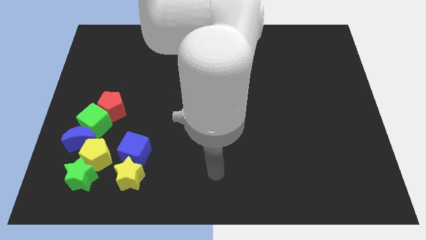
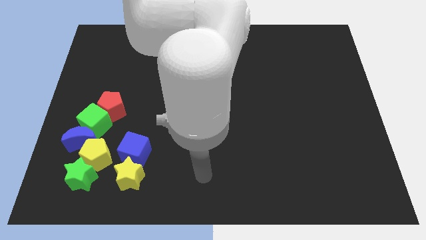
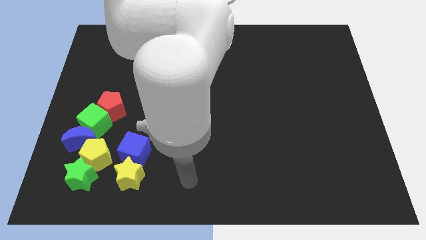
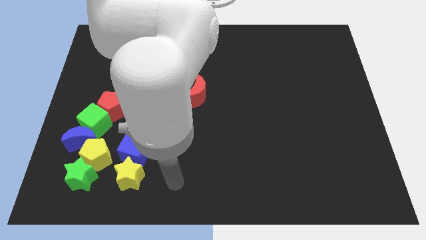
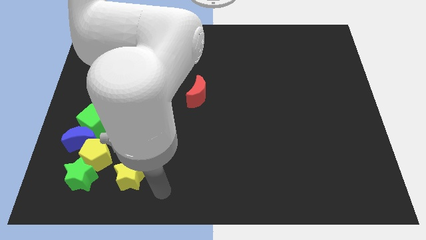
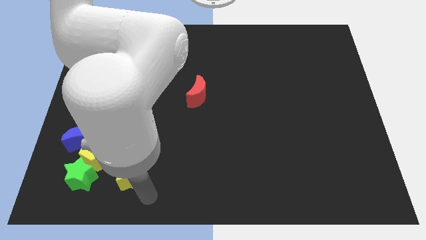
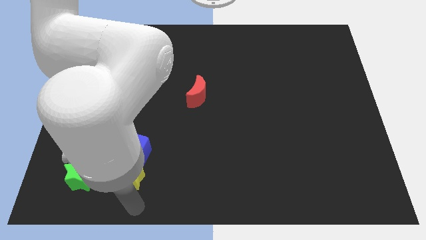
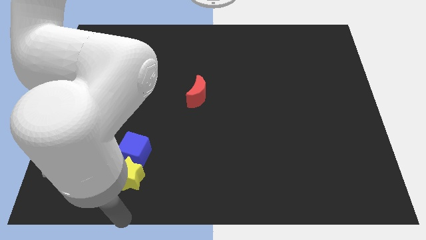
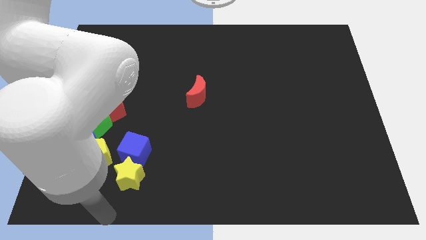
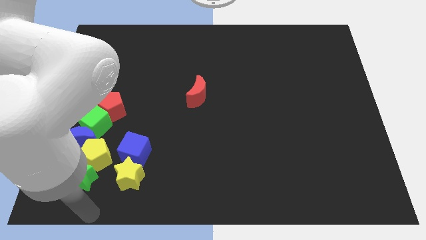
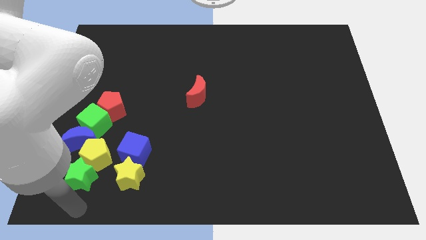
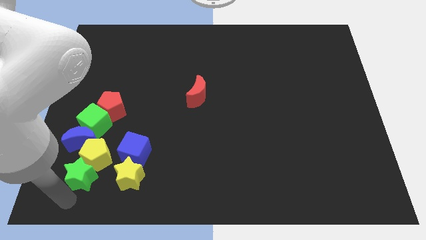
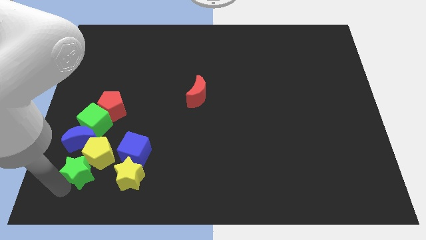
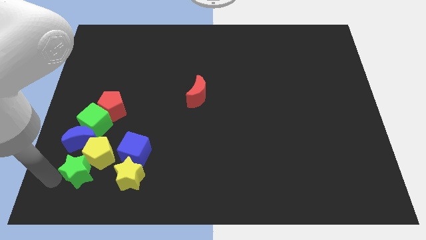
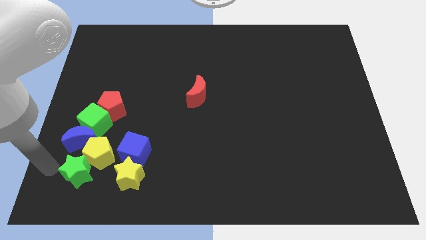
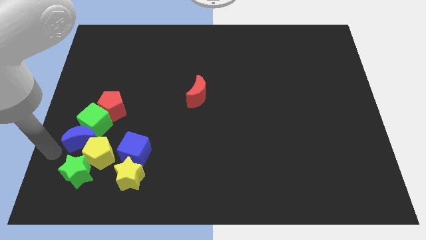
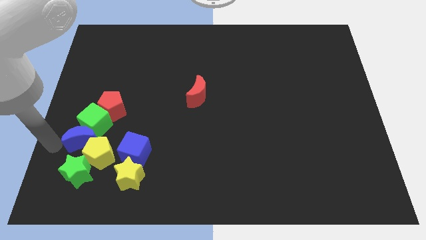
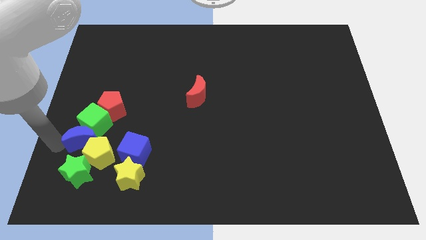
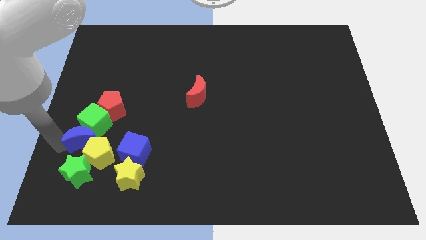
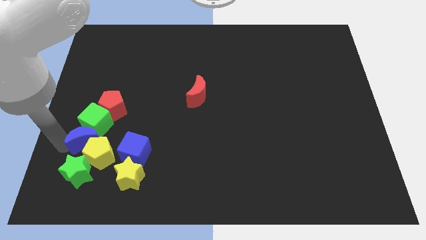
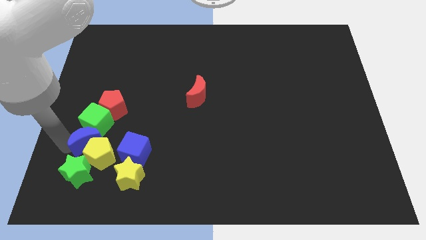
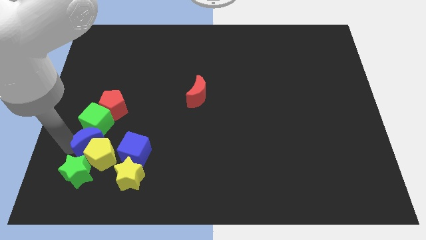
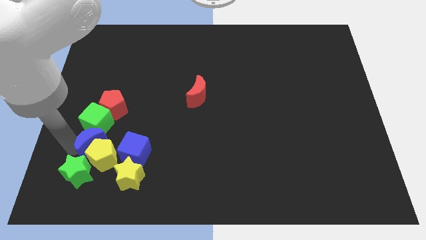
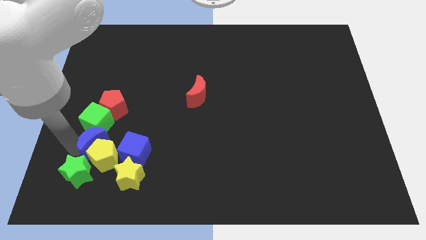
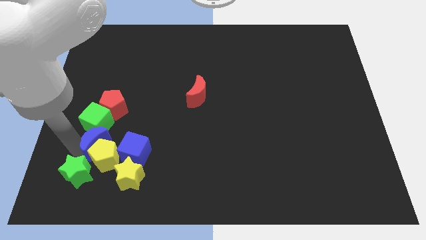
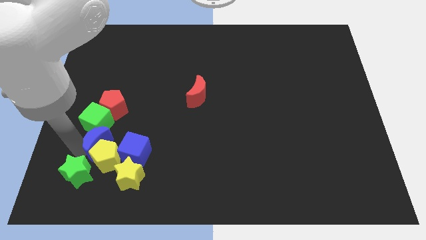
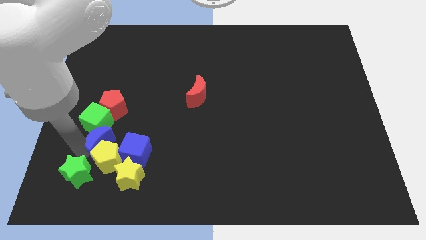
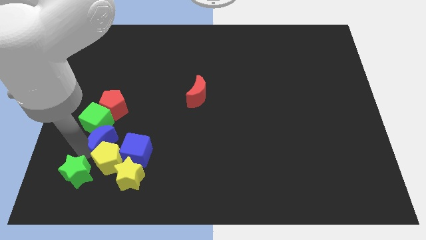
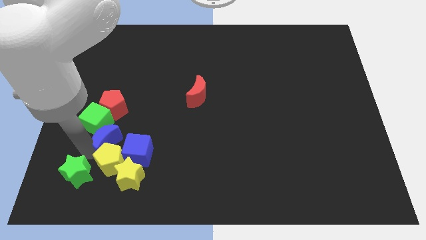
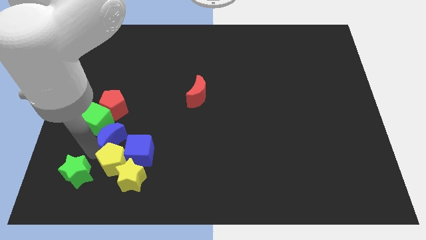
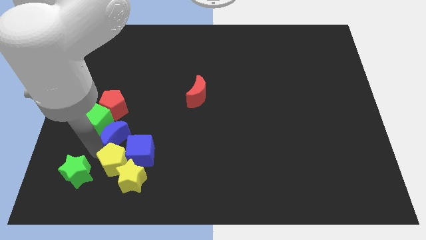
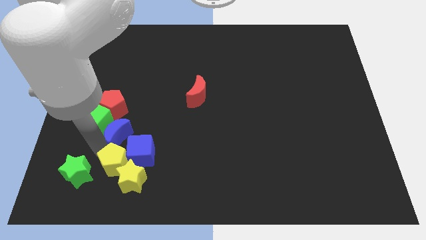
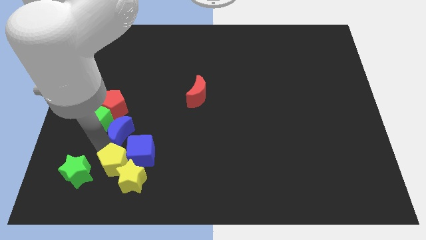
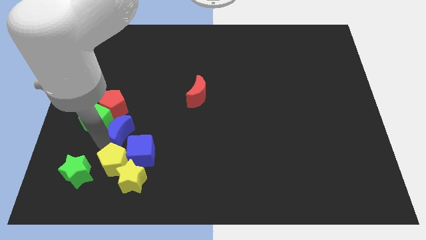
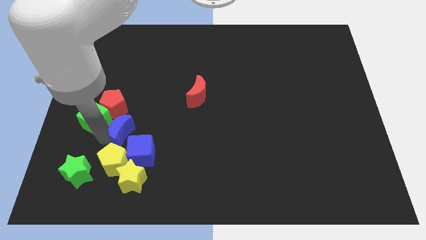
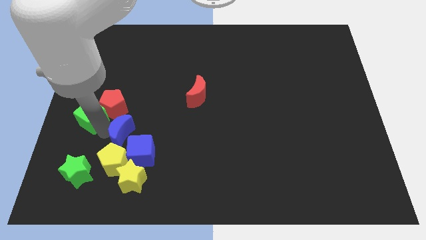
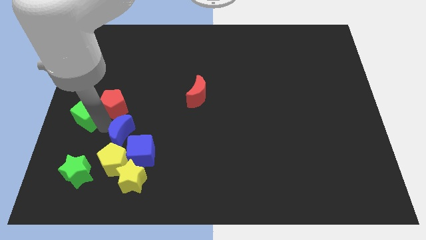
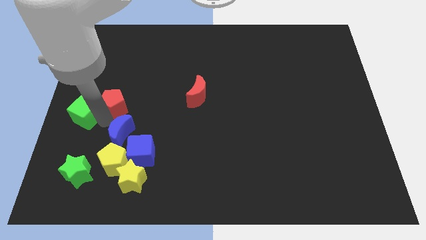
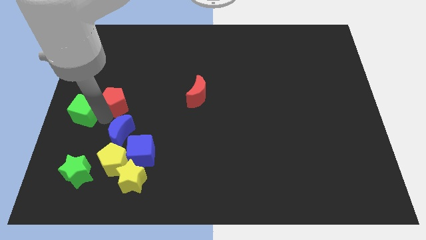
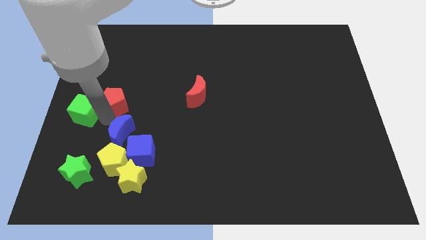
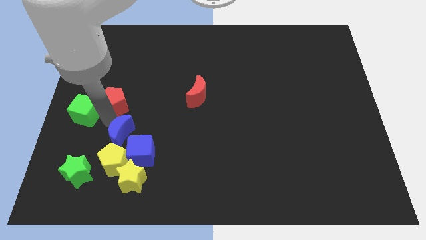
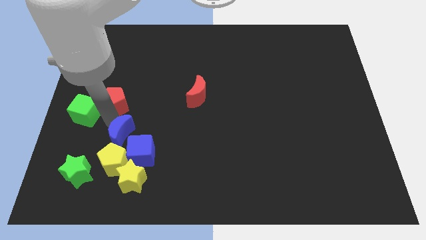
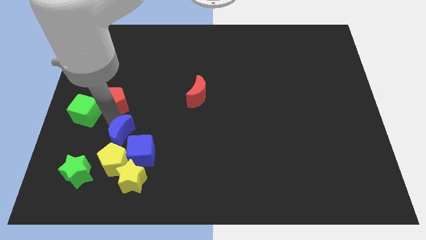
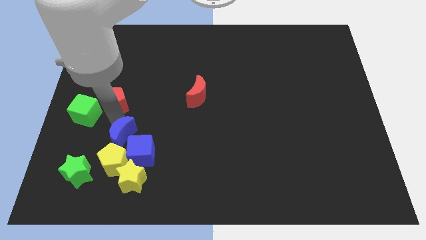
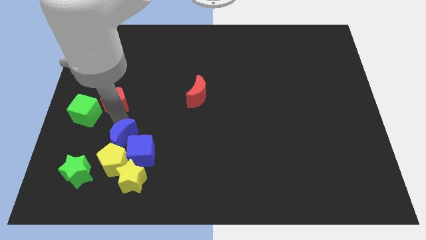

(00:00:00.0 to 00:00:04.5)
push the blue moon towards the blue cube

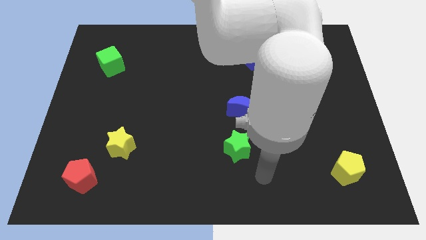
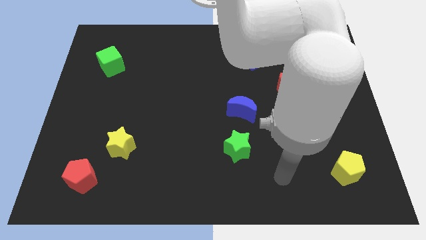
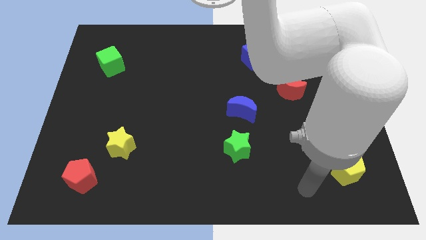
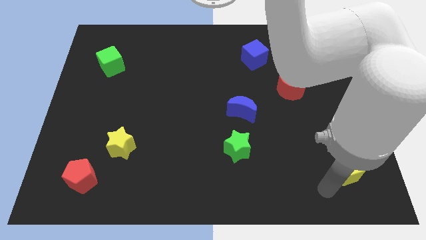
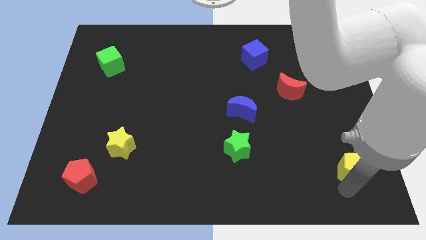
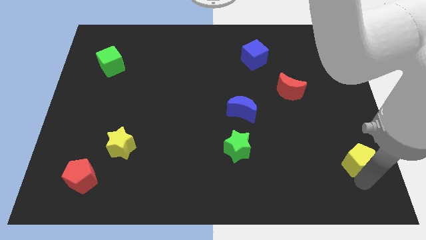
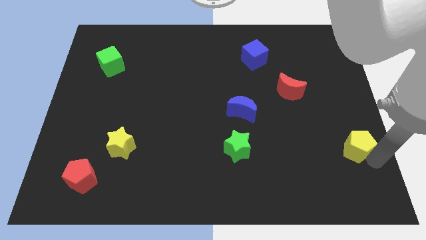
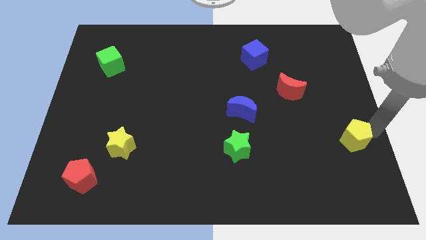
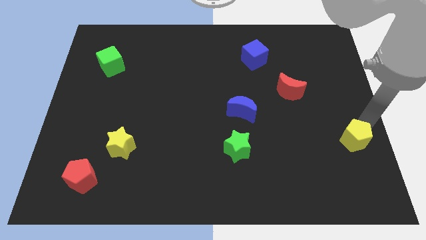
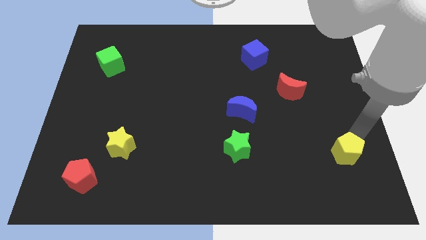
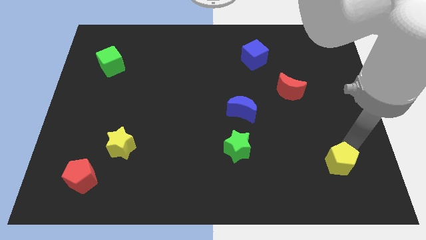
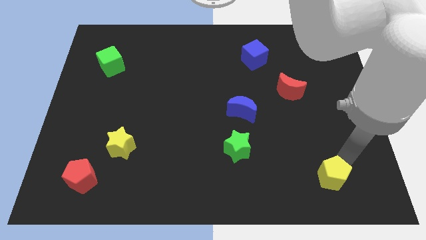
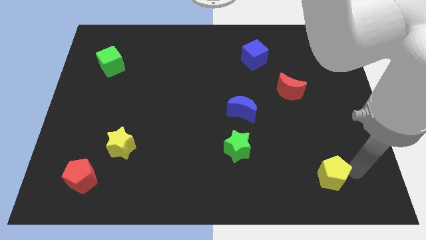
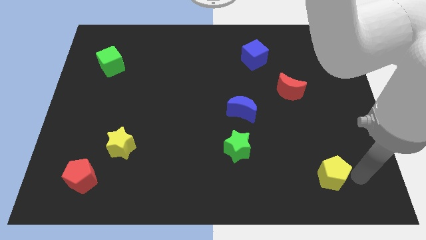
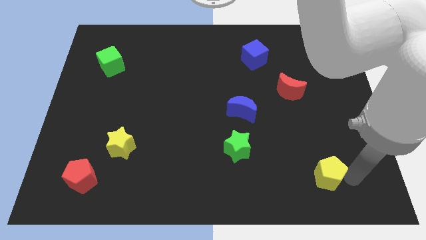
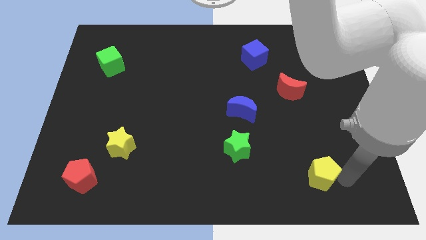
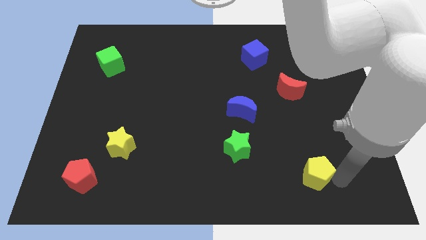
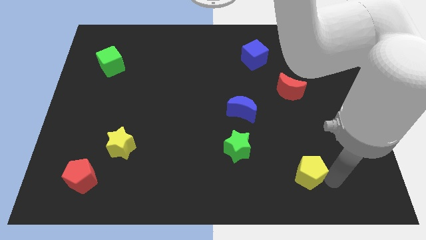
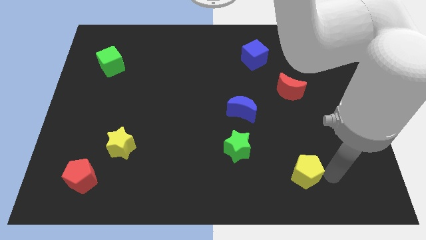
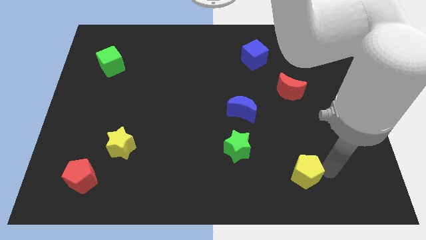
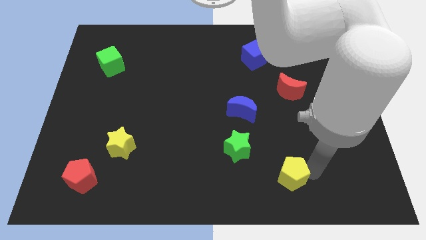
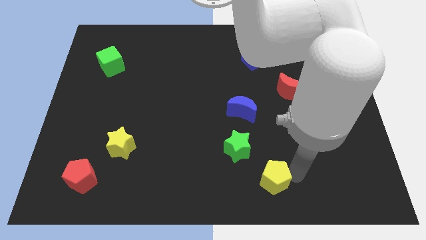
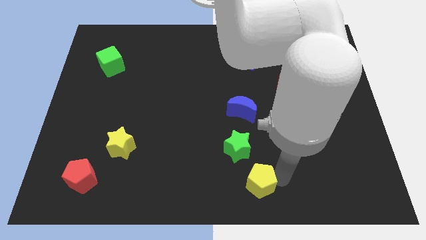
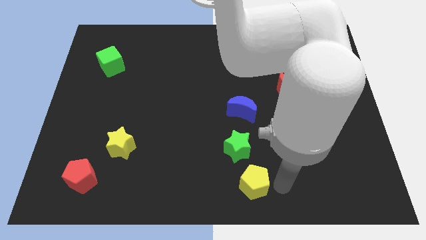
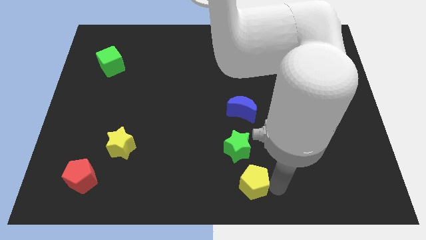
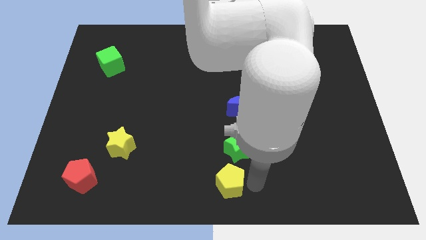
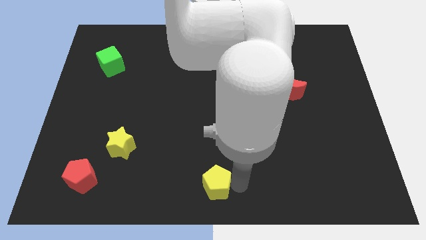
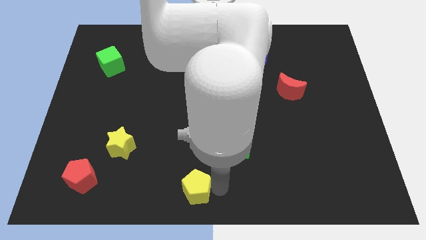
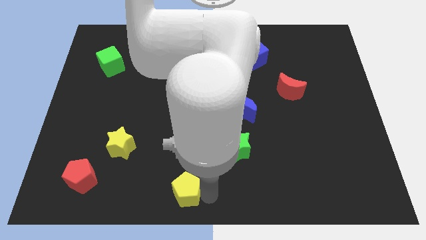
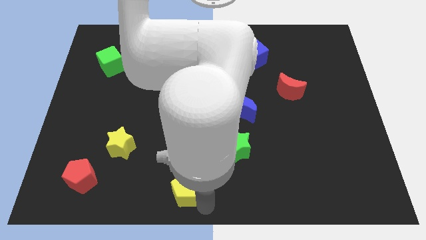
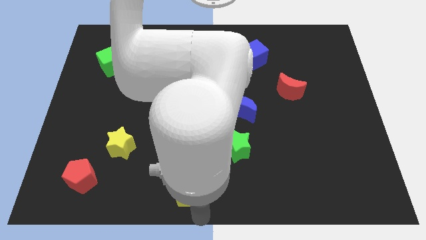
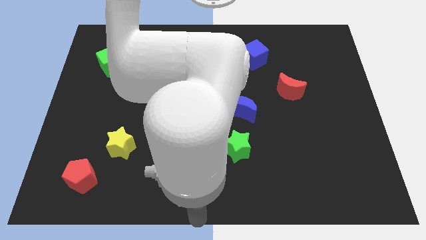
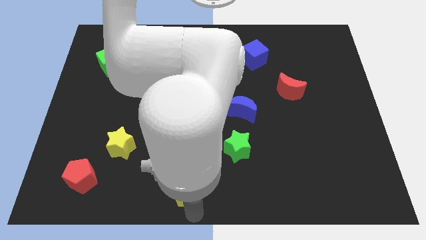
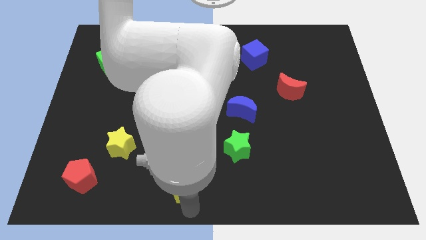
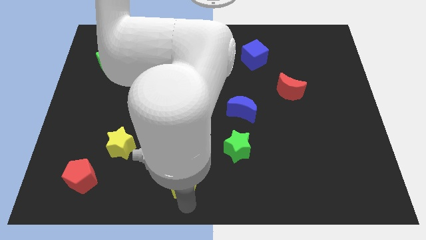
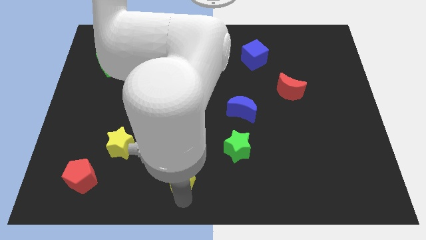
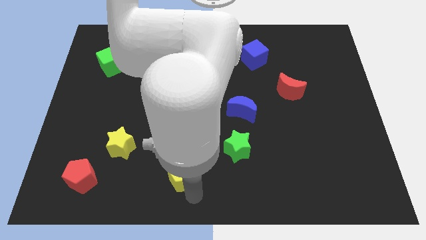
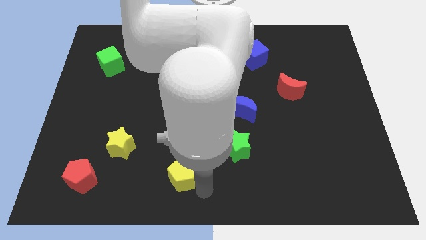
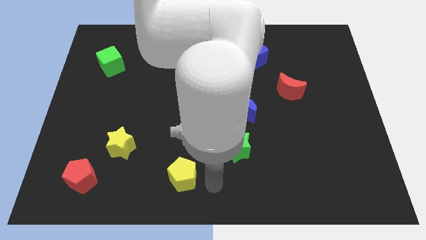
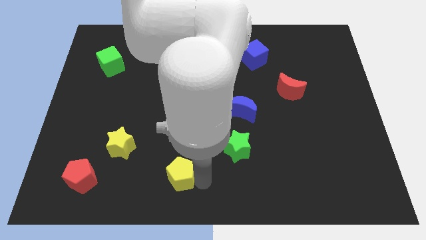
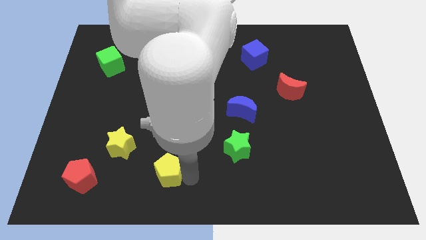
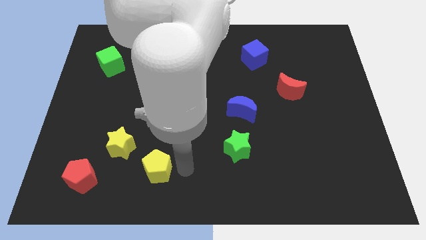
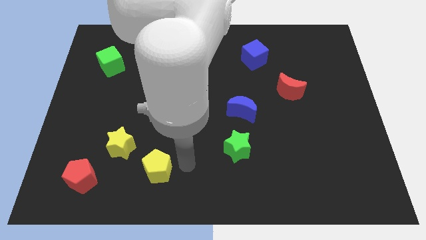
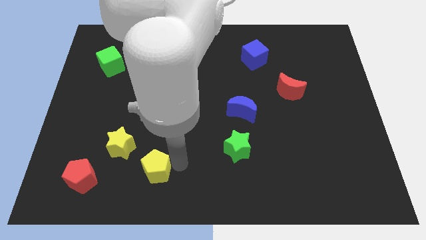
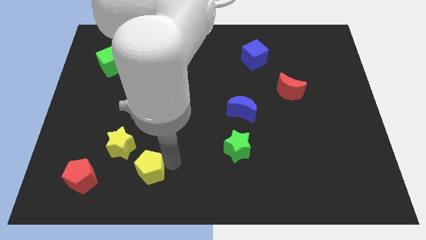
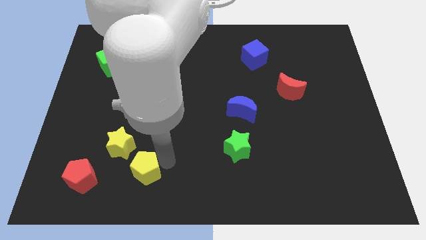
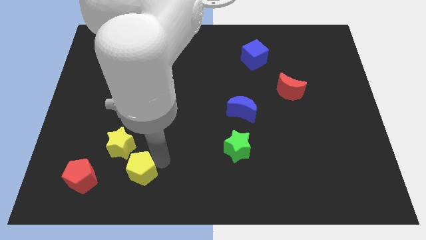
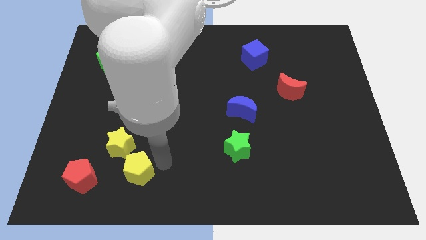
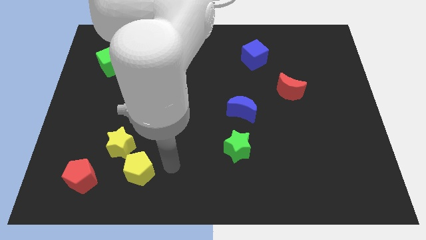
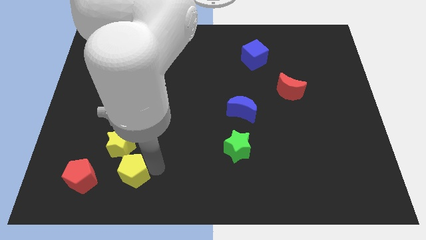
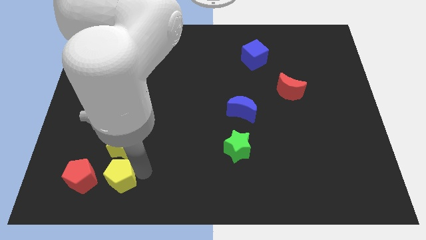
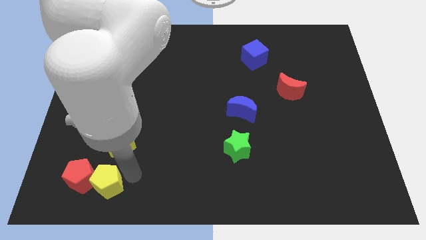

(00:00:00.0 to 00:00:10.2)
put the yellow pentagon towards the red pentagon
